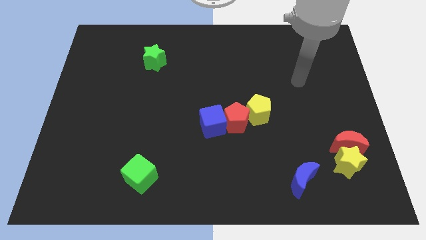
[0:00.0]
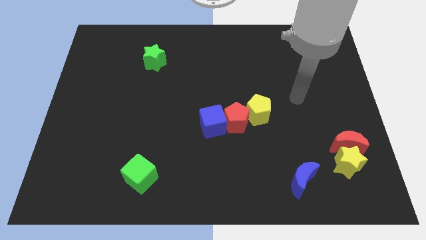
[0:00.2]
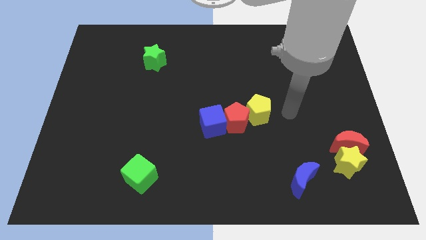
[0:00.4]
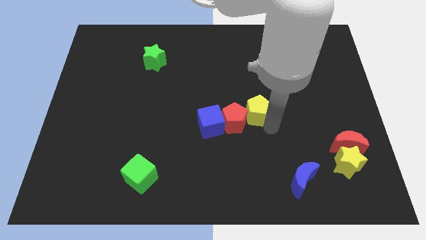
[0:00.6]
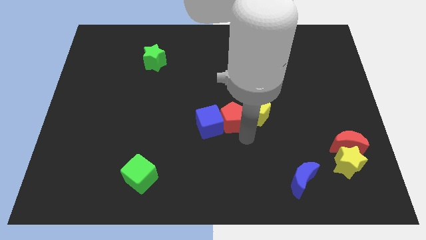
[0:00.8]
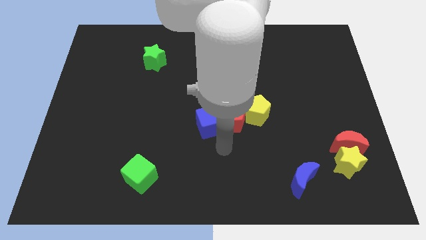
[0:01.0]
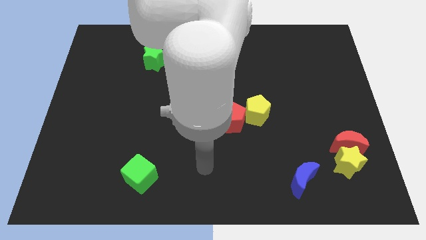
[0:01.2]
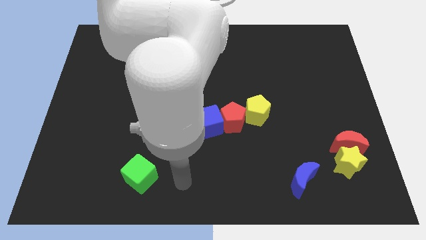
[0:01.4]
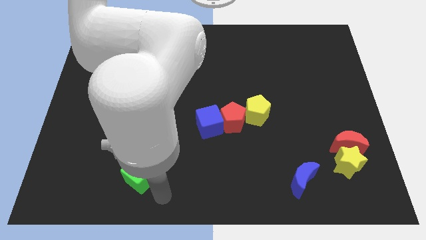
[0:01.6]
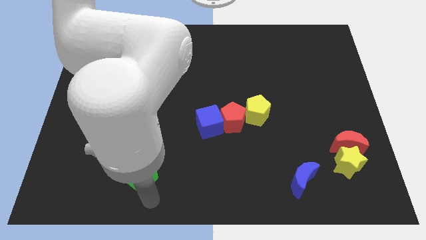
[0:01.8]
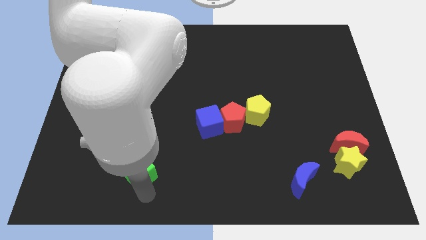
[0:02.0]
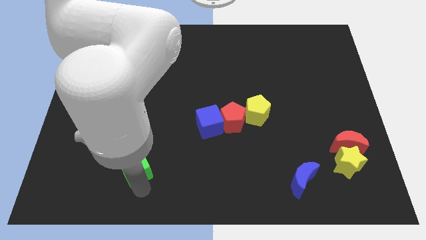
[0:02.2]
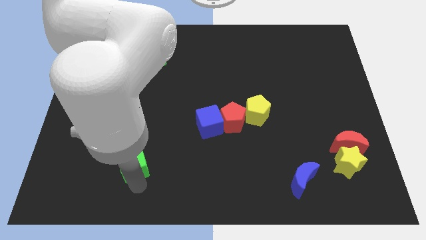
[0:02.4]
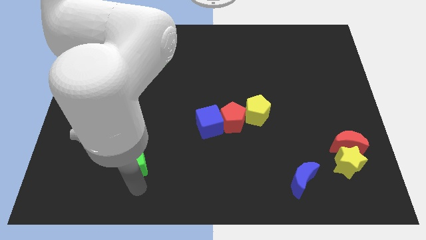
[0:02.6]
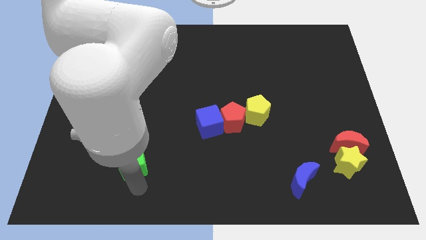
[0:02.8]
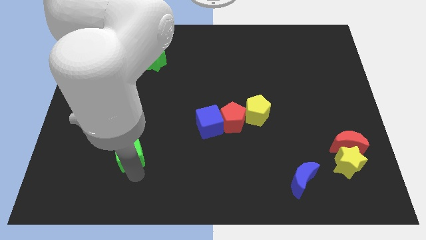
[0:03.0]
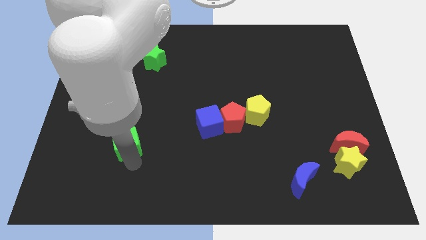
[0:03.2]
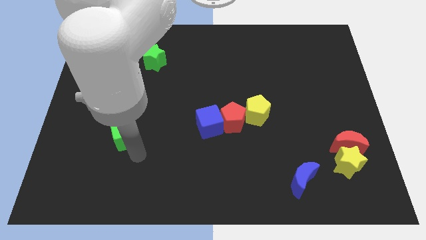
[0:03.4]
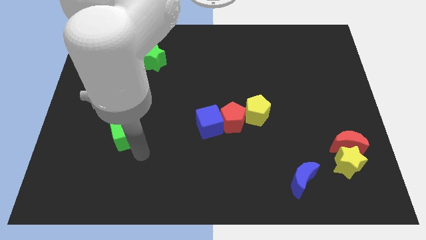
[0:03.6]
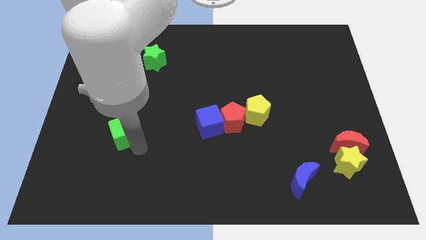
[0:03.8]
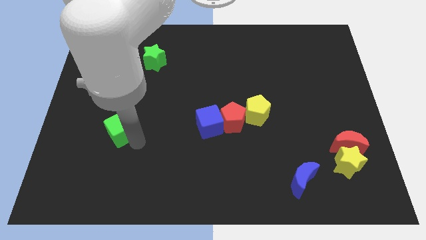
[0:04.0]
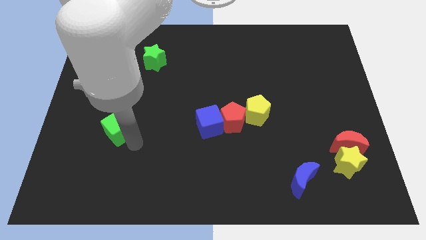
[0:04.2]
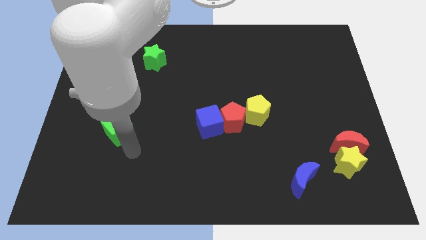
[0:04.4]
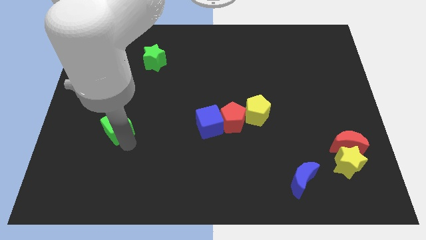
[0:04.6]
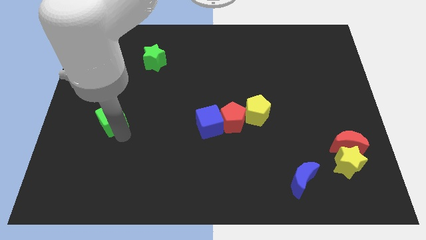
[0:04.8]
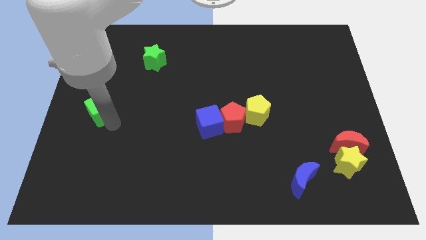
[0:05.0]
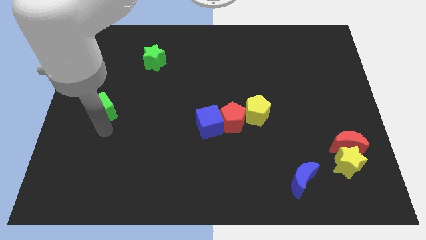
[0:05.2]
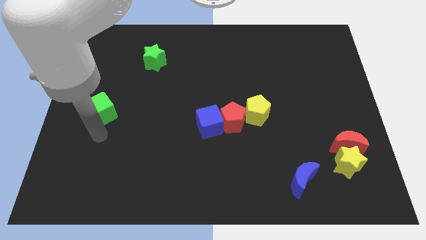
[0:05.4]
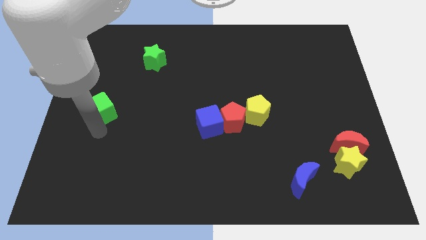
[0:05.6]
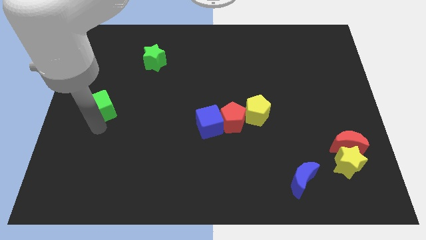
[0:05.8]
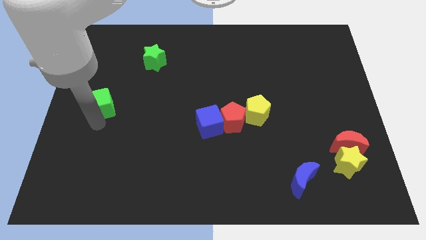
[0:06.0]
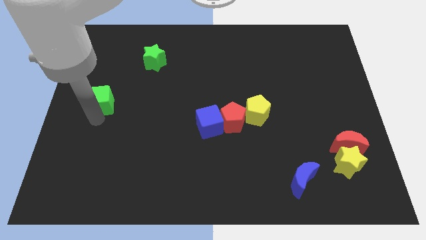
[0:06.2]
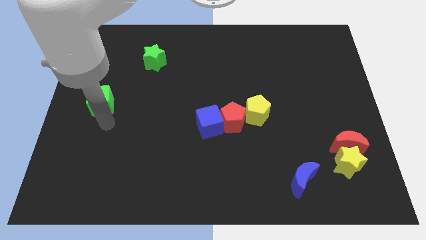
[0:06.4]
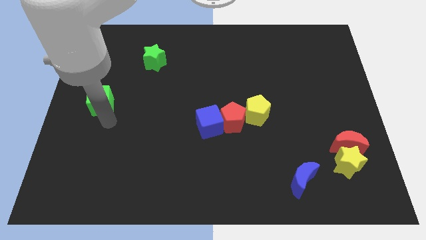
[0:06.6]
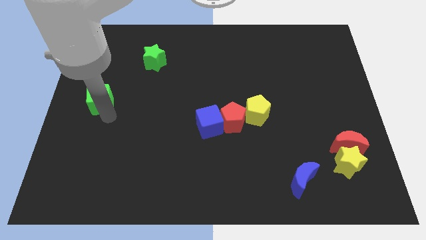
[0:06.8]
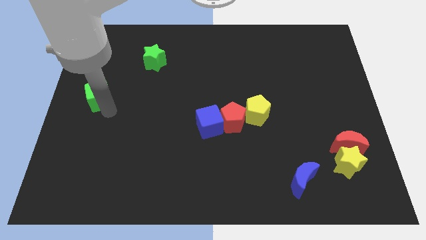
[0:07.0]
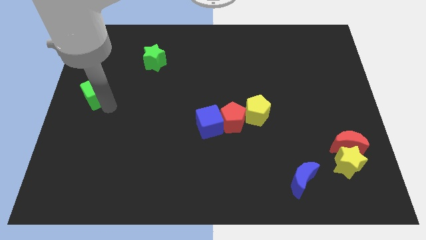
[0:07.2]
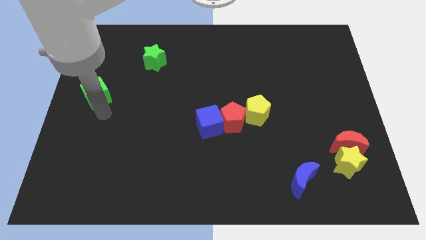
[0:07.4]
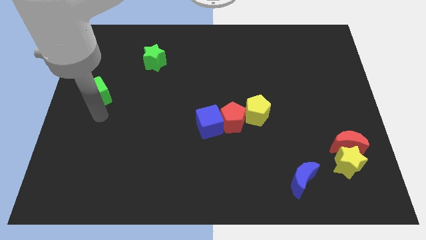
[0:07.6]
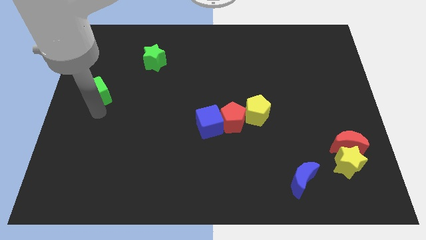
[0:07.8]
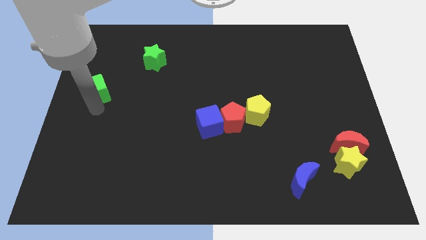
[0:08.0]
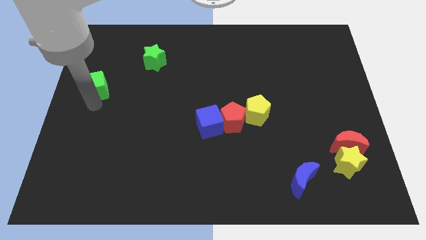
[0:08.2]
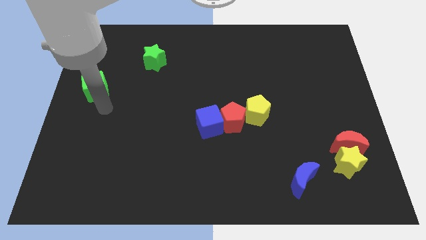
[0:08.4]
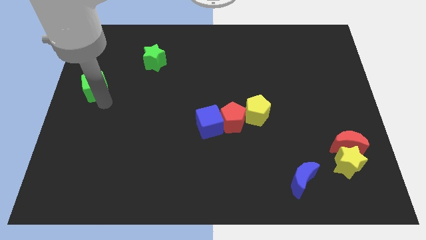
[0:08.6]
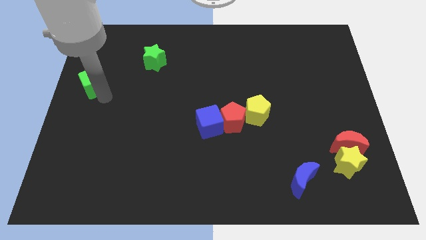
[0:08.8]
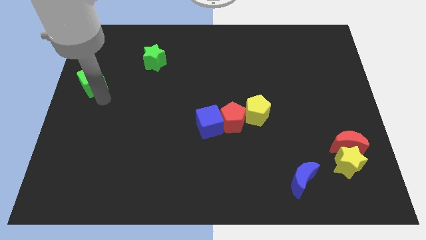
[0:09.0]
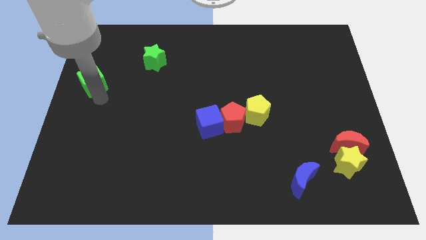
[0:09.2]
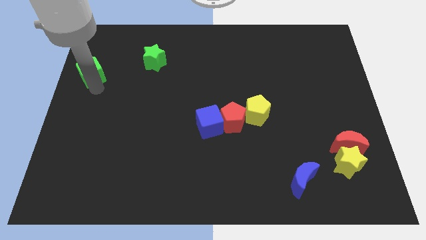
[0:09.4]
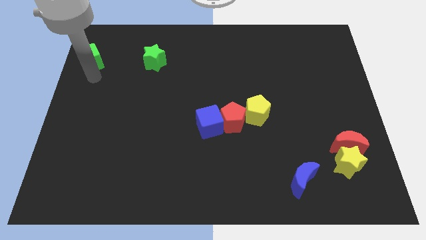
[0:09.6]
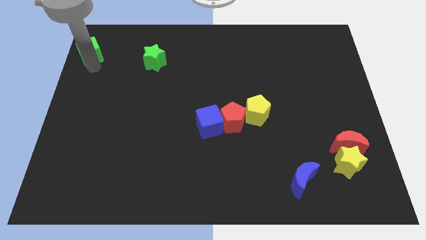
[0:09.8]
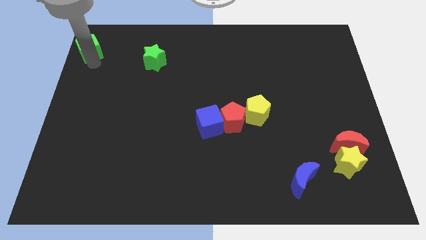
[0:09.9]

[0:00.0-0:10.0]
put the green cube to the top left corner

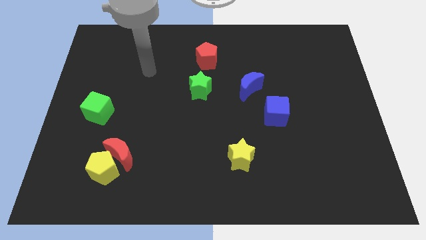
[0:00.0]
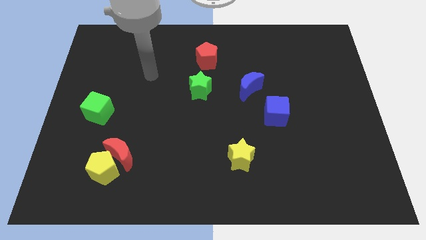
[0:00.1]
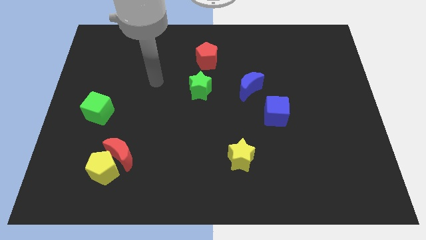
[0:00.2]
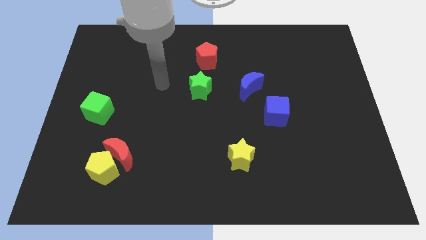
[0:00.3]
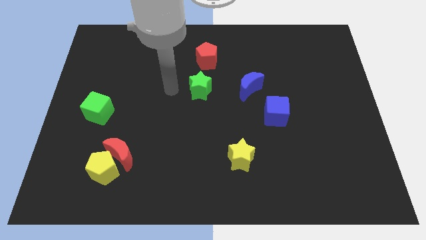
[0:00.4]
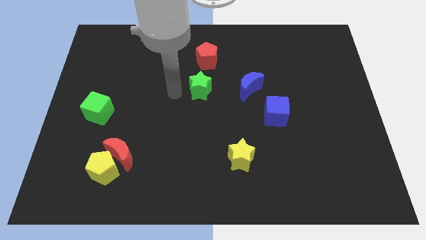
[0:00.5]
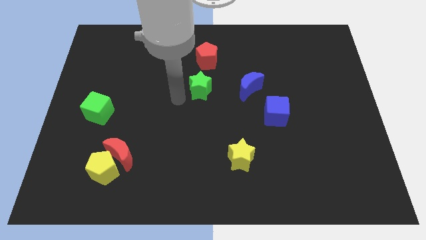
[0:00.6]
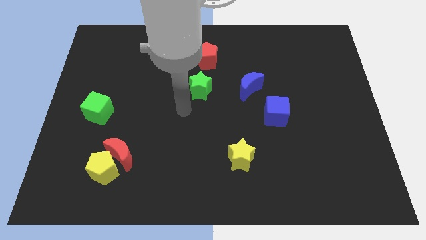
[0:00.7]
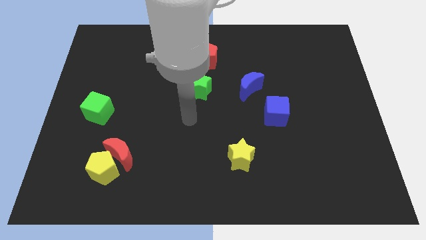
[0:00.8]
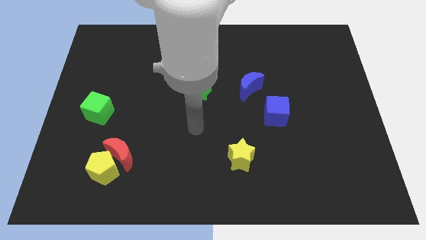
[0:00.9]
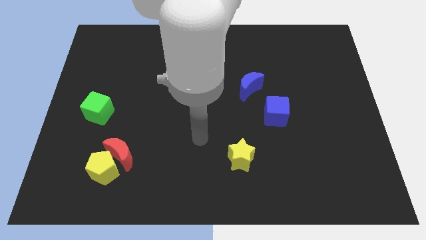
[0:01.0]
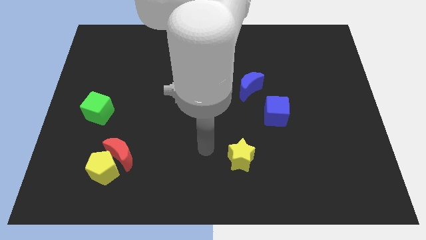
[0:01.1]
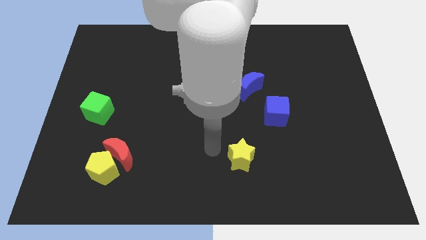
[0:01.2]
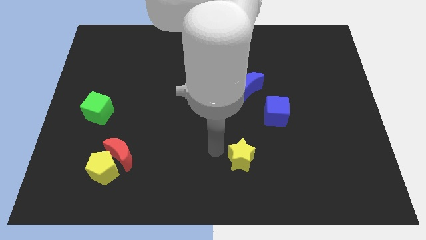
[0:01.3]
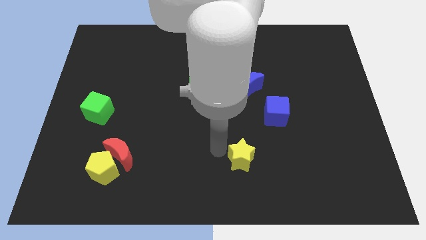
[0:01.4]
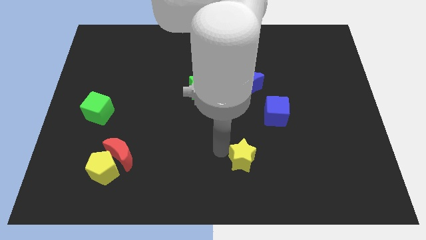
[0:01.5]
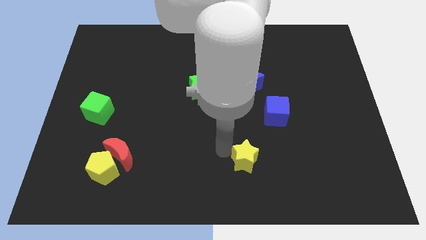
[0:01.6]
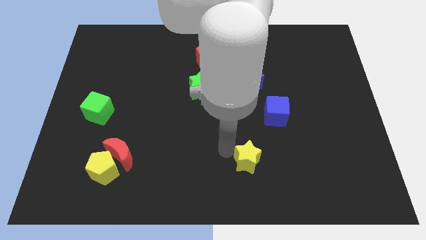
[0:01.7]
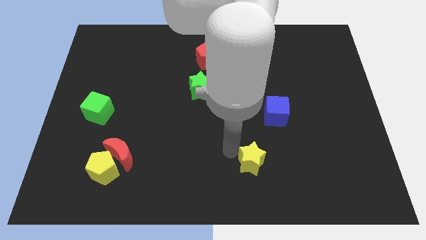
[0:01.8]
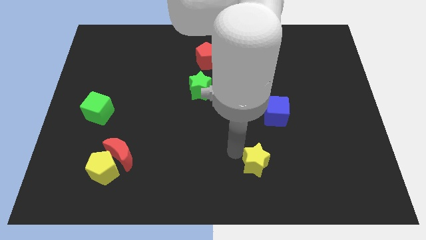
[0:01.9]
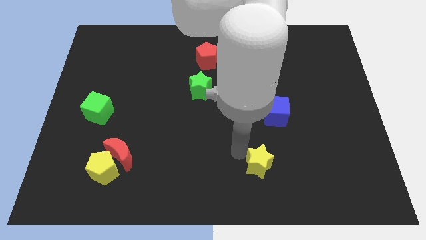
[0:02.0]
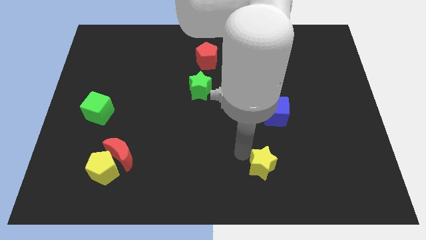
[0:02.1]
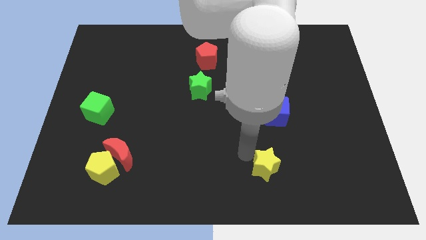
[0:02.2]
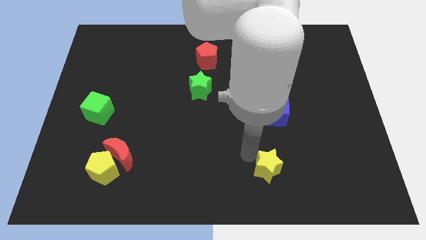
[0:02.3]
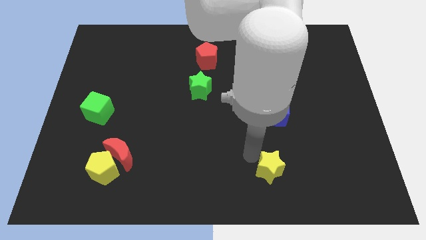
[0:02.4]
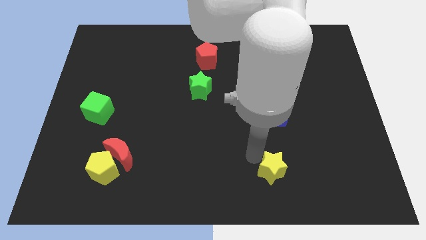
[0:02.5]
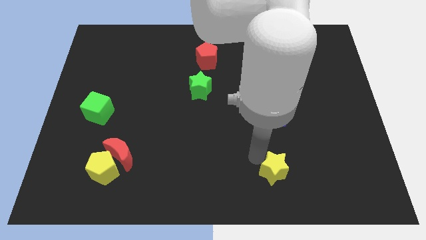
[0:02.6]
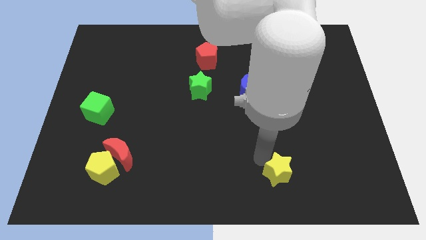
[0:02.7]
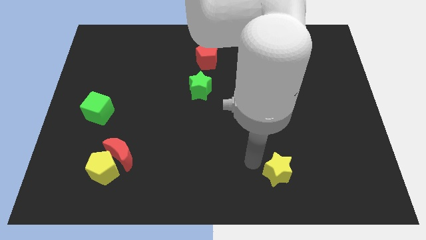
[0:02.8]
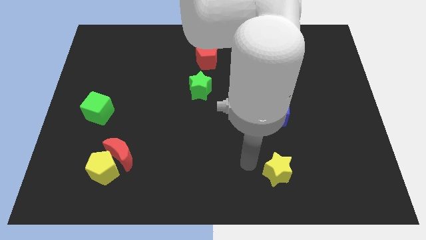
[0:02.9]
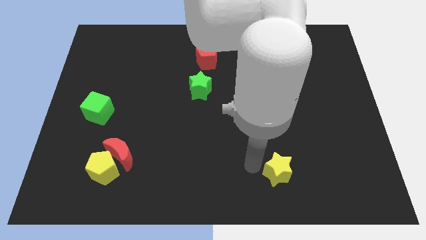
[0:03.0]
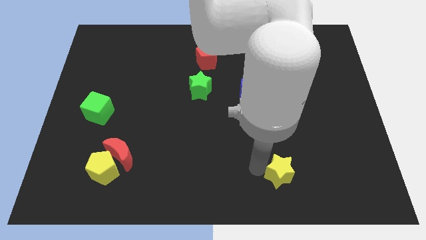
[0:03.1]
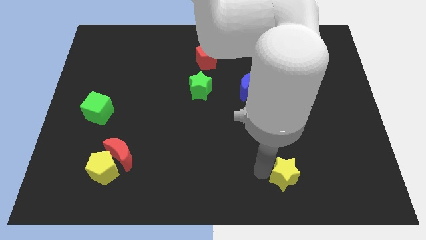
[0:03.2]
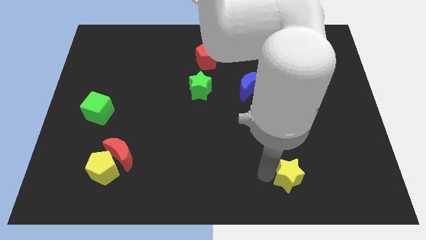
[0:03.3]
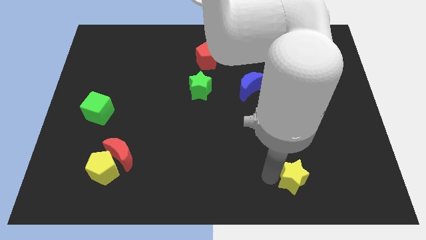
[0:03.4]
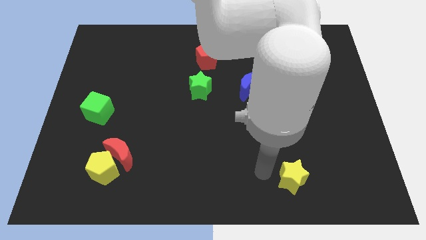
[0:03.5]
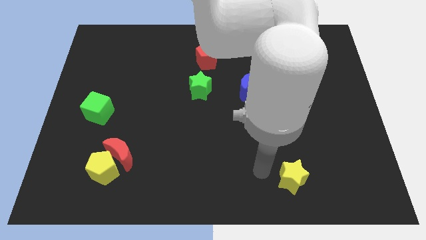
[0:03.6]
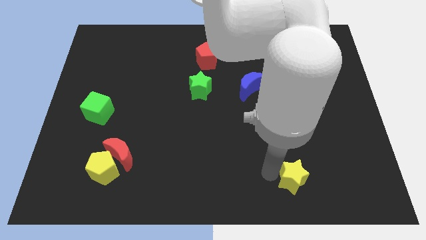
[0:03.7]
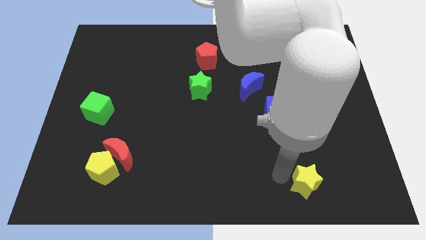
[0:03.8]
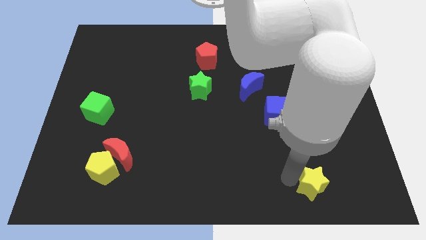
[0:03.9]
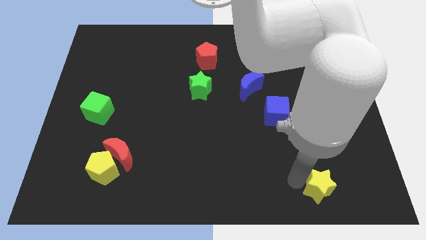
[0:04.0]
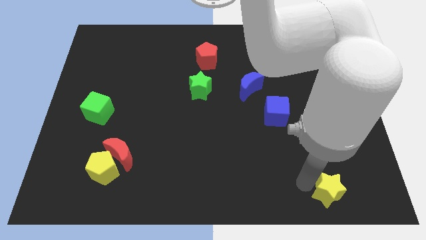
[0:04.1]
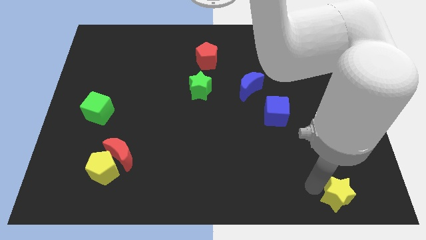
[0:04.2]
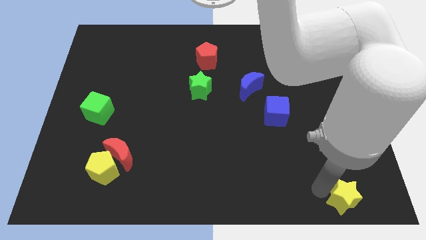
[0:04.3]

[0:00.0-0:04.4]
move the yellow star to the bottom right of the board
